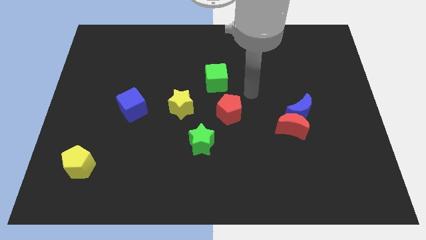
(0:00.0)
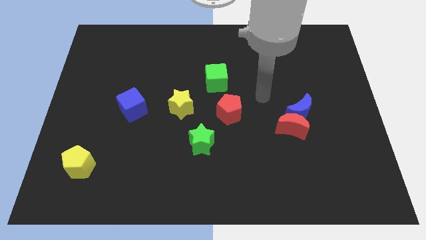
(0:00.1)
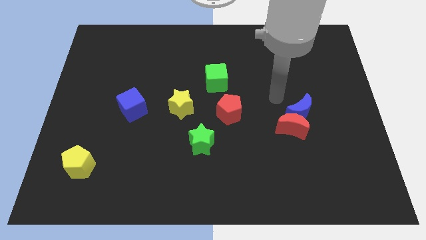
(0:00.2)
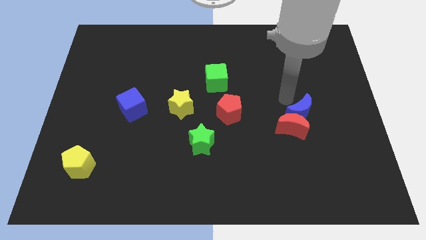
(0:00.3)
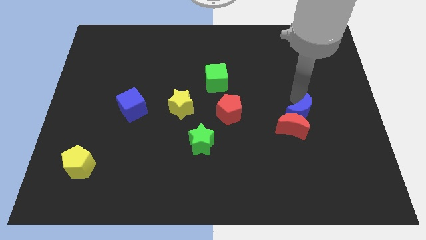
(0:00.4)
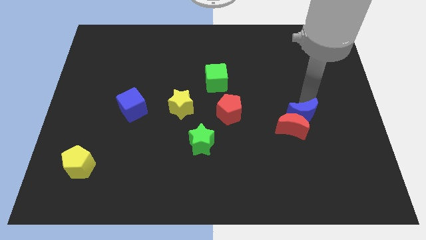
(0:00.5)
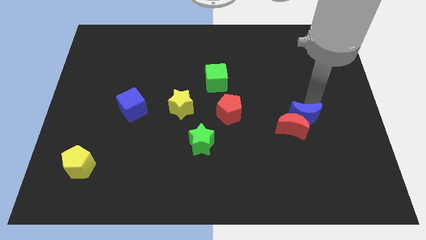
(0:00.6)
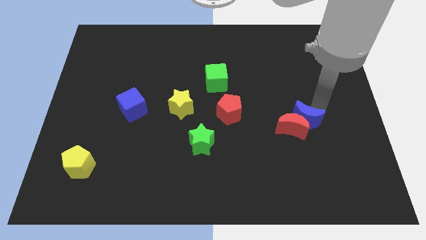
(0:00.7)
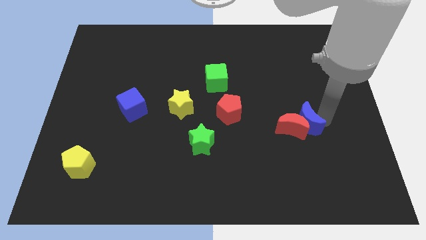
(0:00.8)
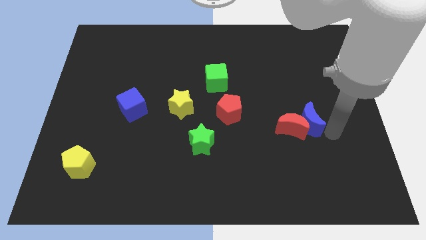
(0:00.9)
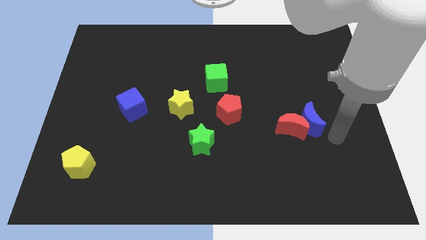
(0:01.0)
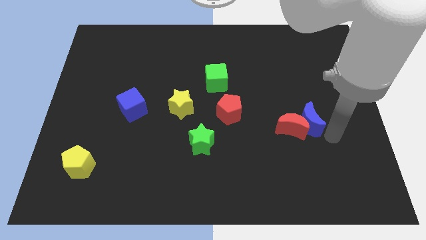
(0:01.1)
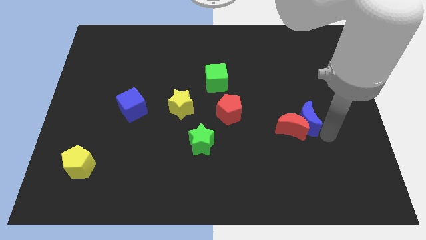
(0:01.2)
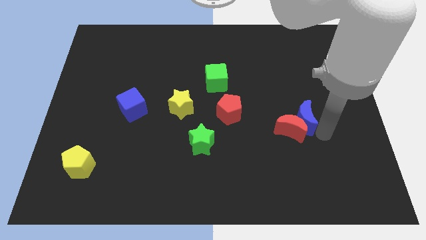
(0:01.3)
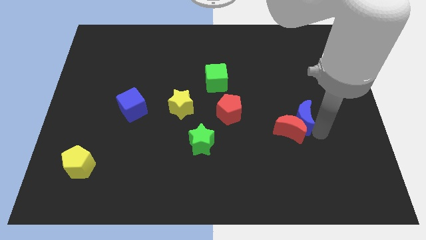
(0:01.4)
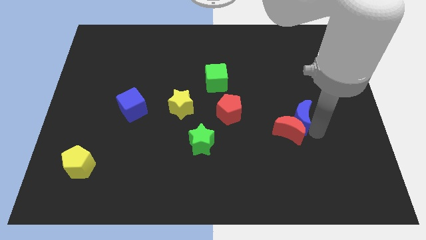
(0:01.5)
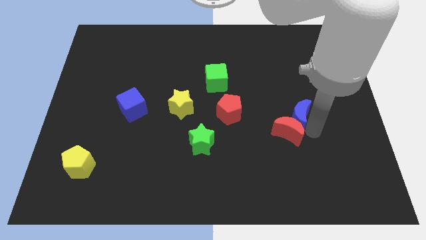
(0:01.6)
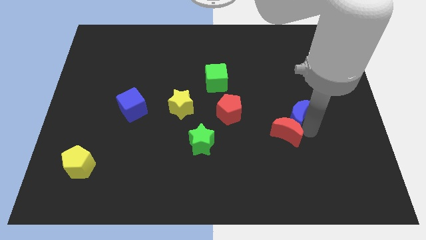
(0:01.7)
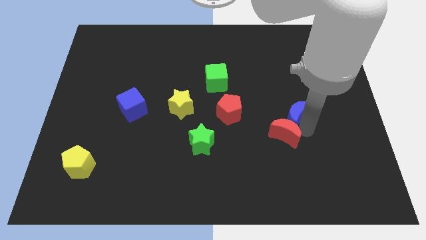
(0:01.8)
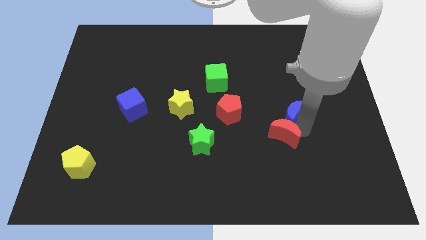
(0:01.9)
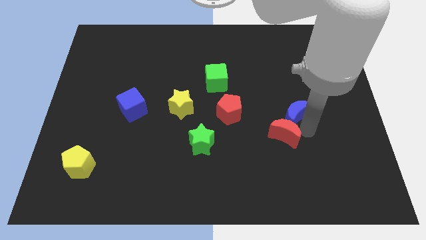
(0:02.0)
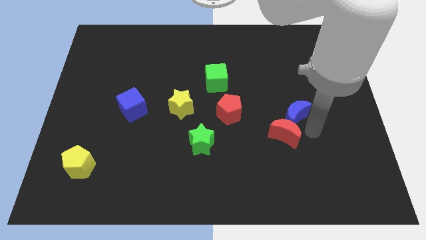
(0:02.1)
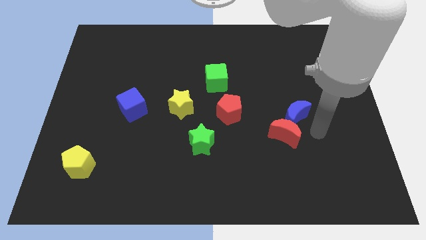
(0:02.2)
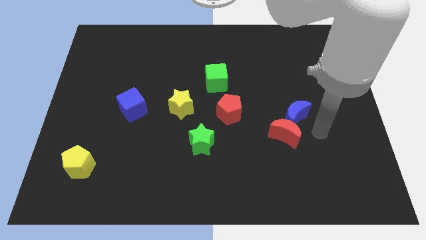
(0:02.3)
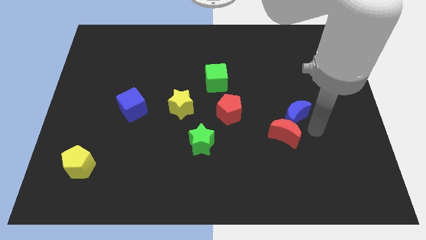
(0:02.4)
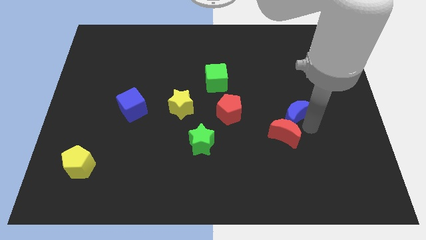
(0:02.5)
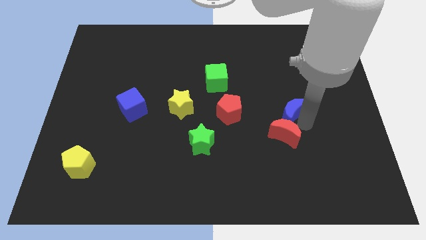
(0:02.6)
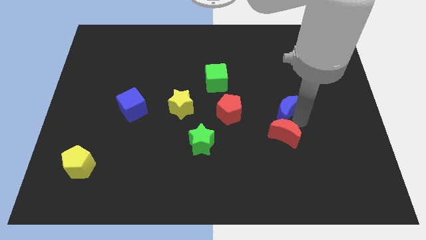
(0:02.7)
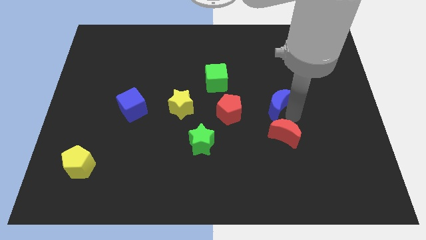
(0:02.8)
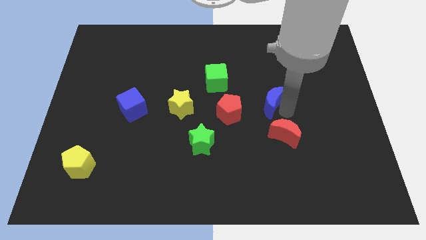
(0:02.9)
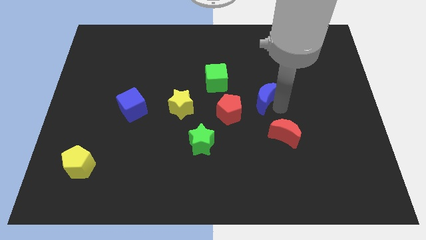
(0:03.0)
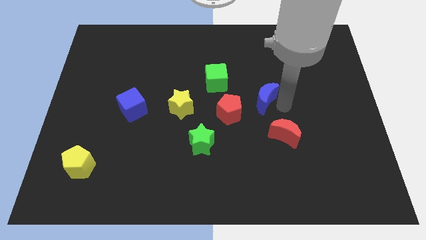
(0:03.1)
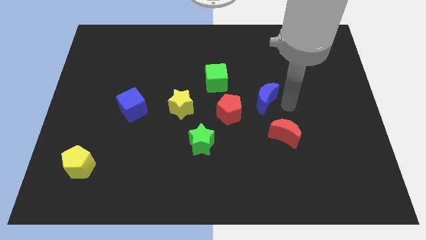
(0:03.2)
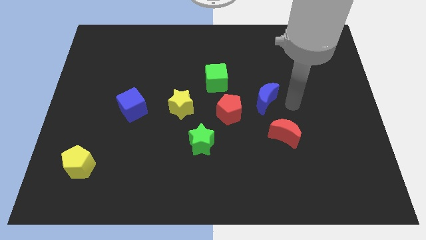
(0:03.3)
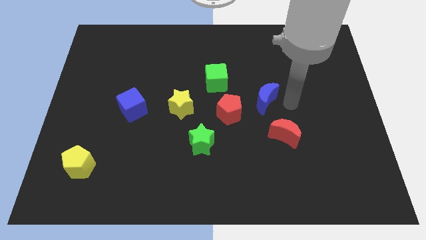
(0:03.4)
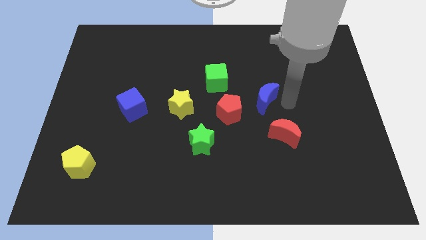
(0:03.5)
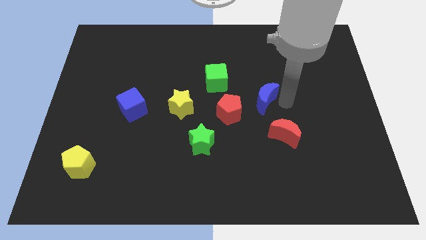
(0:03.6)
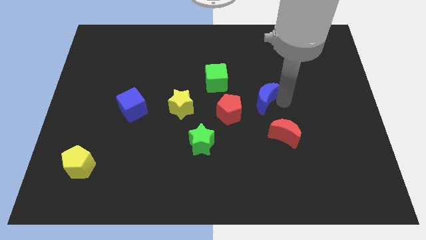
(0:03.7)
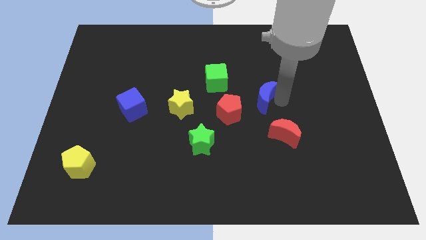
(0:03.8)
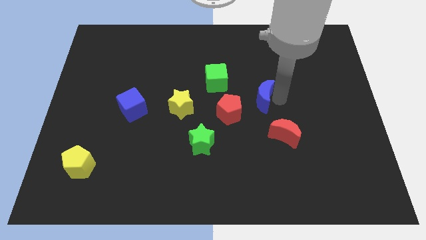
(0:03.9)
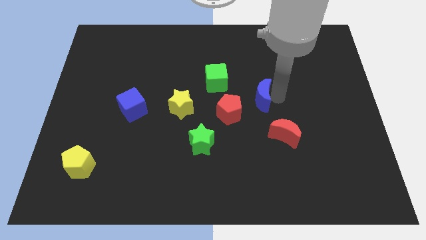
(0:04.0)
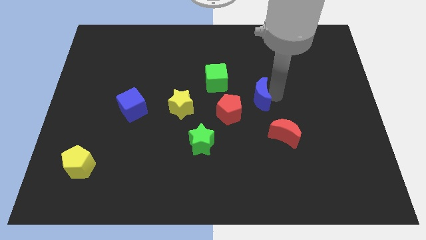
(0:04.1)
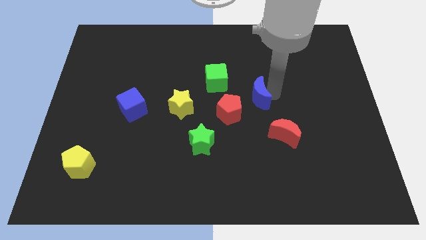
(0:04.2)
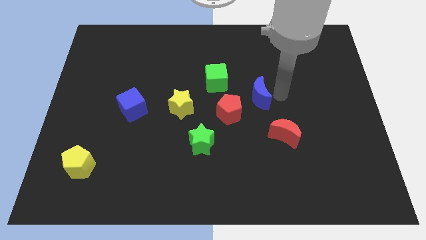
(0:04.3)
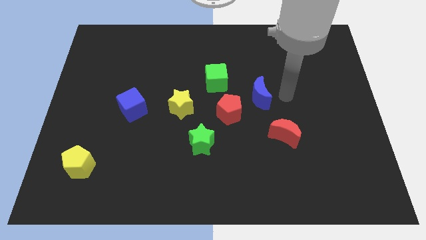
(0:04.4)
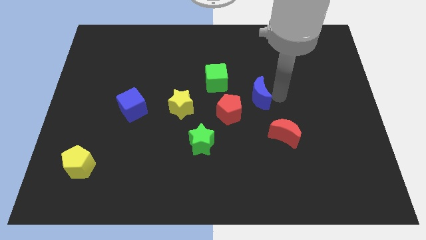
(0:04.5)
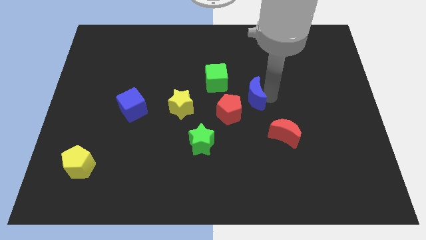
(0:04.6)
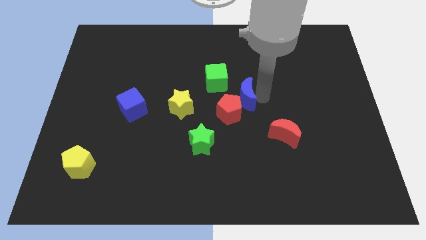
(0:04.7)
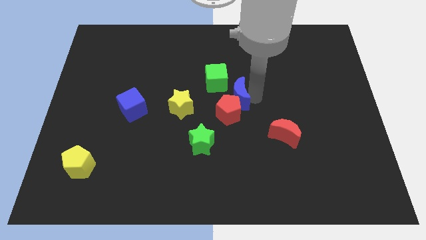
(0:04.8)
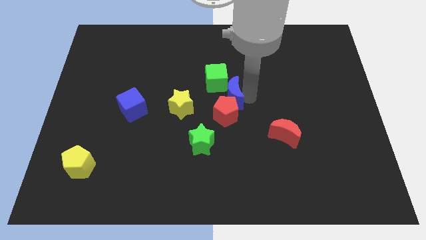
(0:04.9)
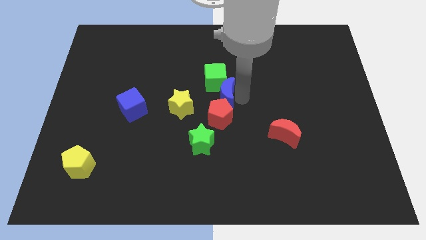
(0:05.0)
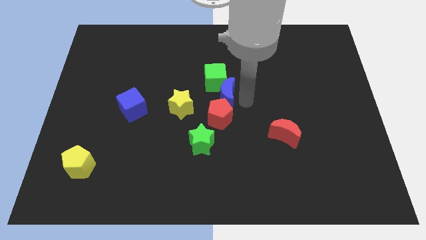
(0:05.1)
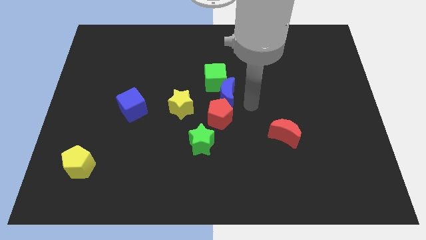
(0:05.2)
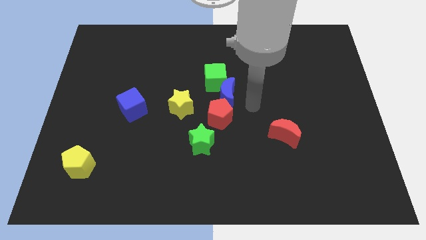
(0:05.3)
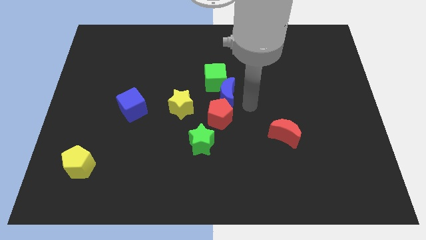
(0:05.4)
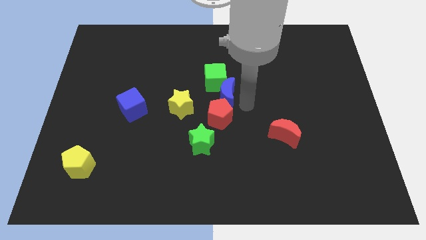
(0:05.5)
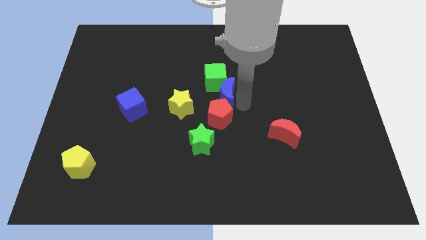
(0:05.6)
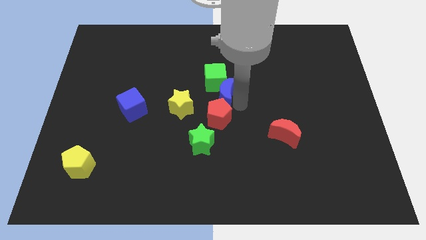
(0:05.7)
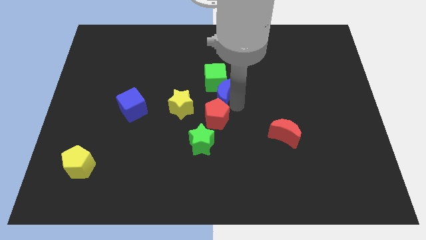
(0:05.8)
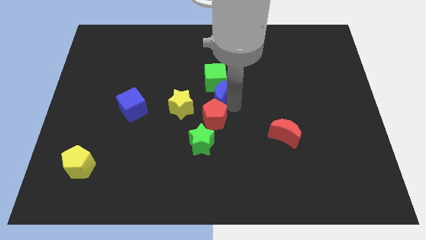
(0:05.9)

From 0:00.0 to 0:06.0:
push the blue moon diagonally up and to the right of the yellow star

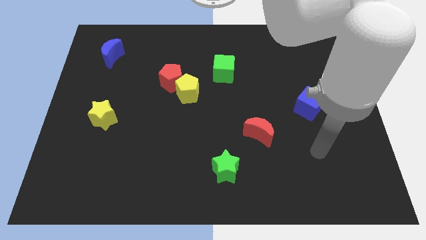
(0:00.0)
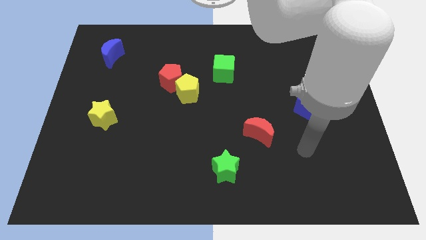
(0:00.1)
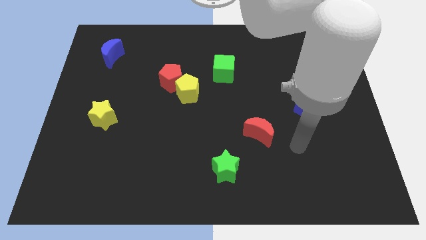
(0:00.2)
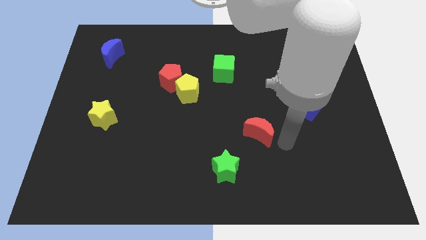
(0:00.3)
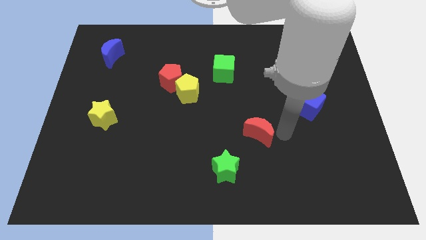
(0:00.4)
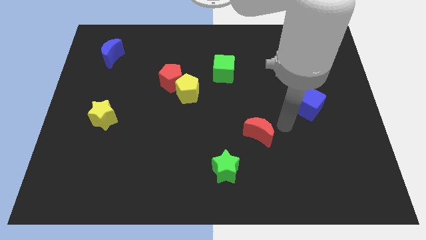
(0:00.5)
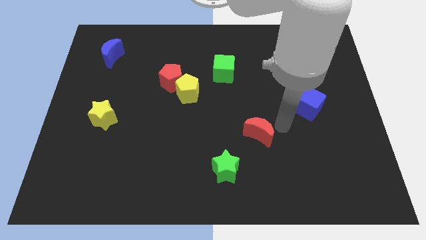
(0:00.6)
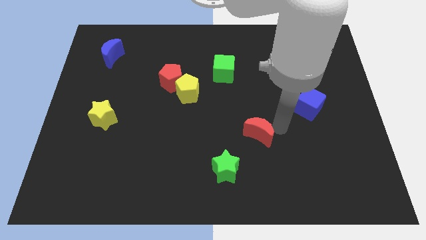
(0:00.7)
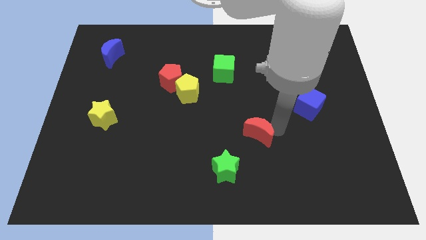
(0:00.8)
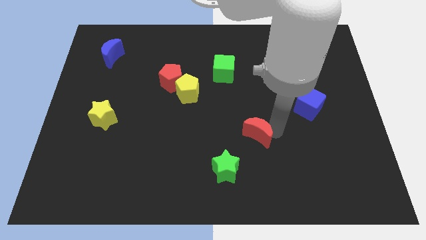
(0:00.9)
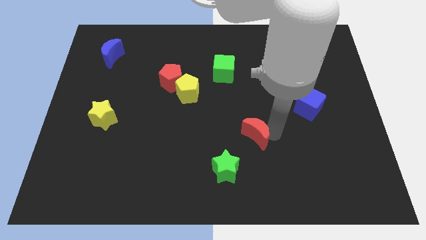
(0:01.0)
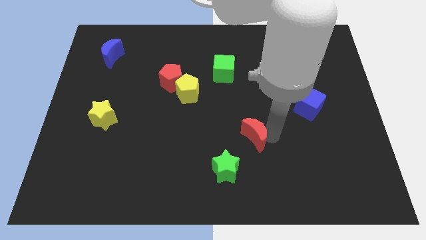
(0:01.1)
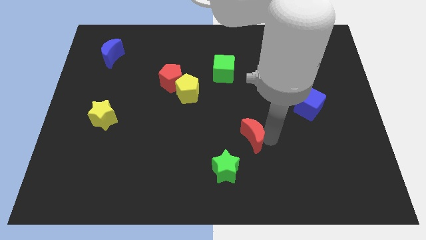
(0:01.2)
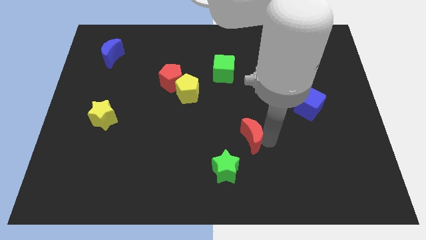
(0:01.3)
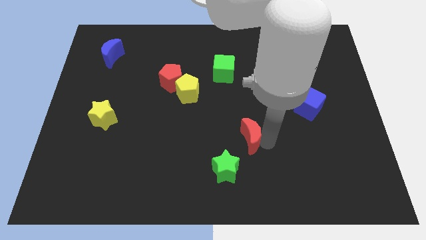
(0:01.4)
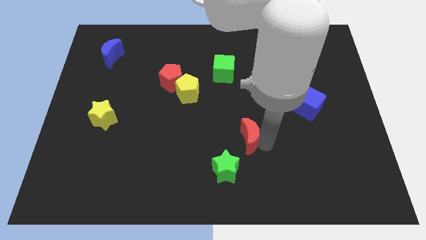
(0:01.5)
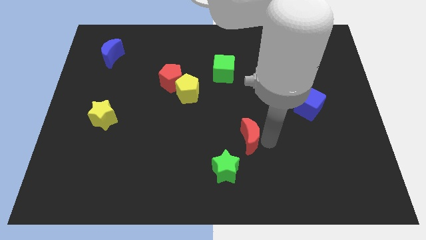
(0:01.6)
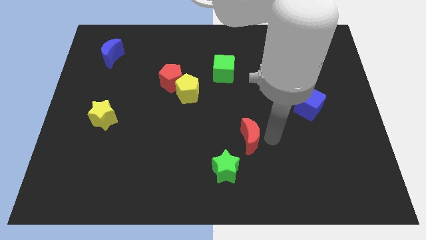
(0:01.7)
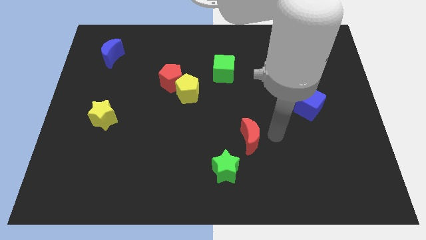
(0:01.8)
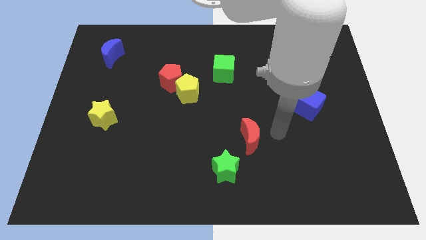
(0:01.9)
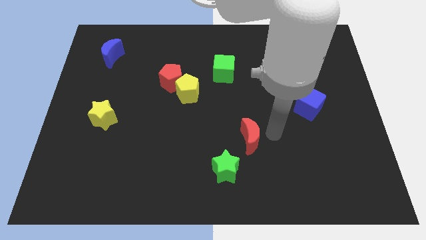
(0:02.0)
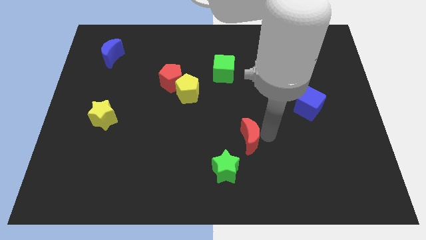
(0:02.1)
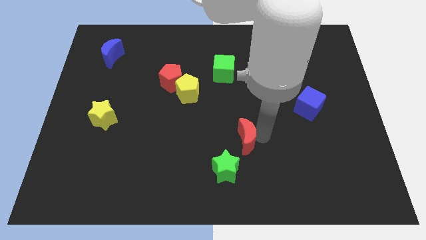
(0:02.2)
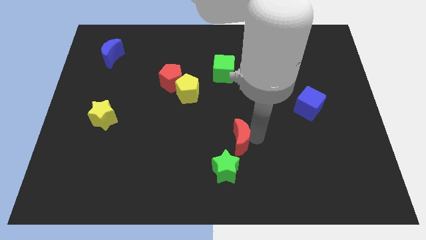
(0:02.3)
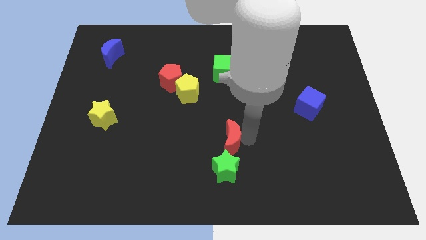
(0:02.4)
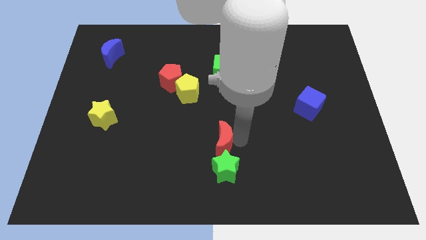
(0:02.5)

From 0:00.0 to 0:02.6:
put the red moon to the top left side of the green star
